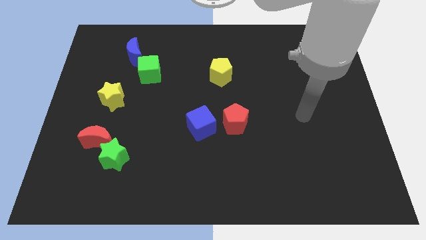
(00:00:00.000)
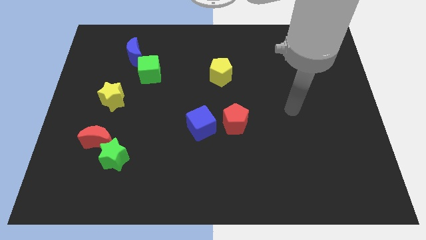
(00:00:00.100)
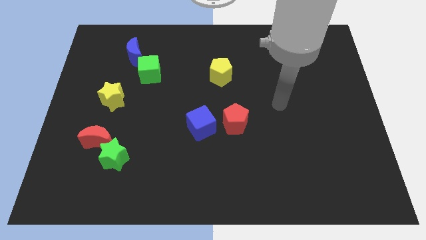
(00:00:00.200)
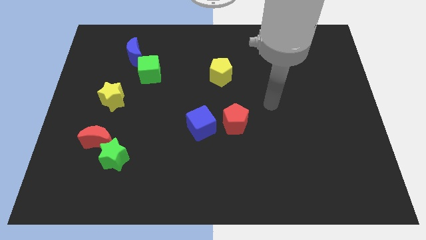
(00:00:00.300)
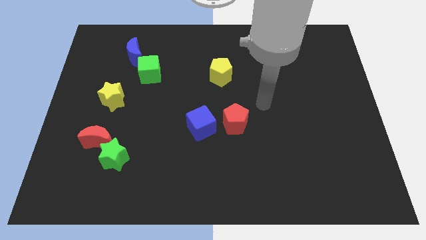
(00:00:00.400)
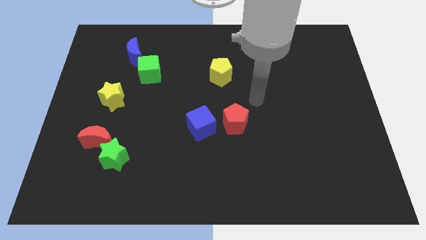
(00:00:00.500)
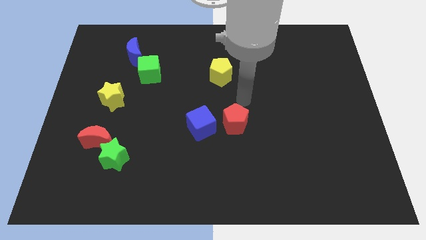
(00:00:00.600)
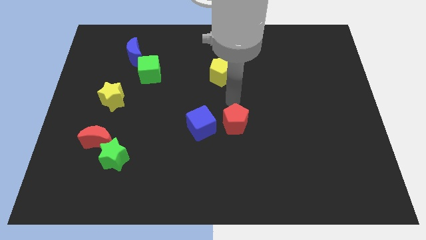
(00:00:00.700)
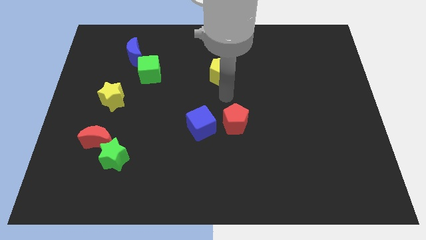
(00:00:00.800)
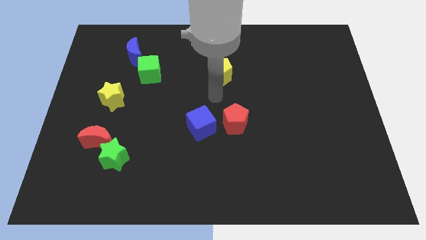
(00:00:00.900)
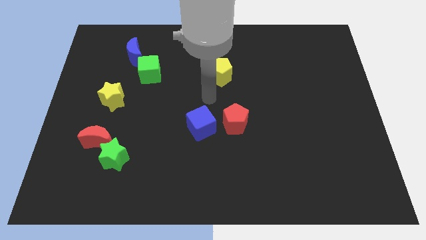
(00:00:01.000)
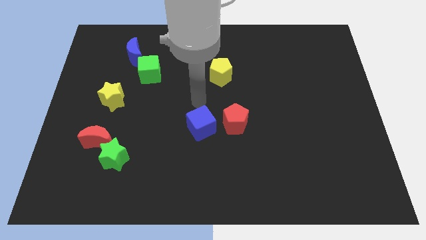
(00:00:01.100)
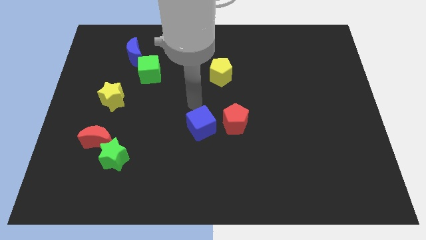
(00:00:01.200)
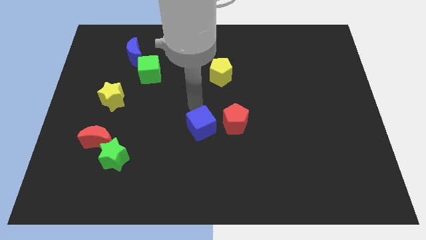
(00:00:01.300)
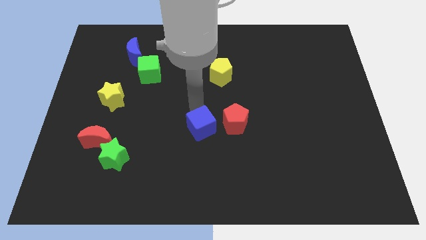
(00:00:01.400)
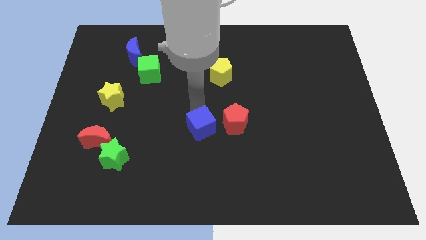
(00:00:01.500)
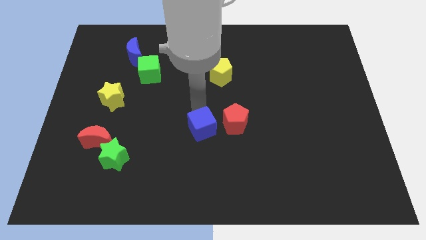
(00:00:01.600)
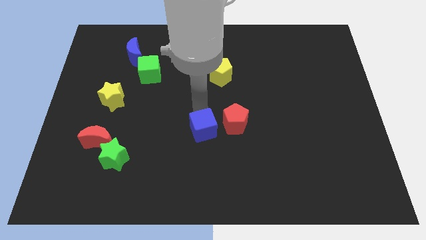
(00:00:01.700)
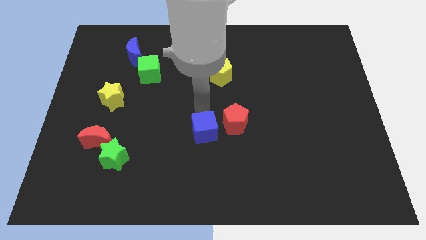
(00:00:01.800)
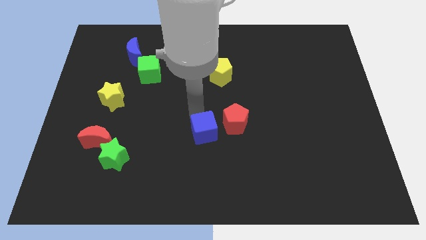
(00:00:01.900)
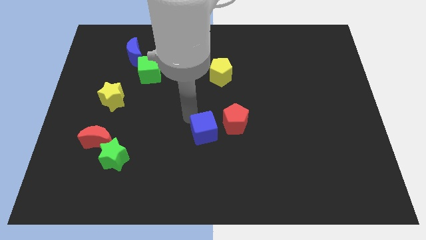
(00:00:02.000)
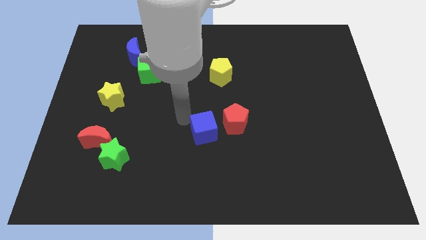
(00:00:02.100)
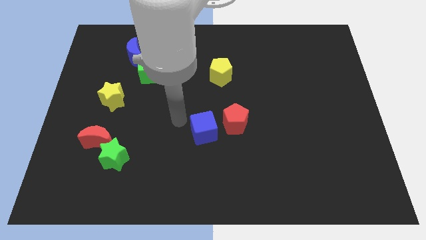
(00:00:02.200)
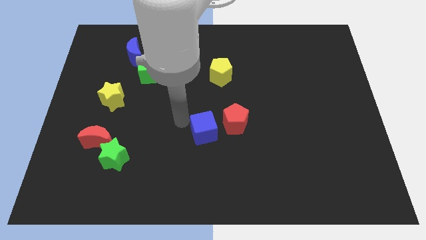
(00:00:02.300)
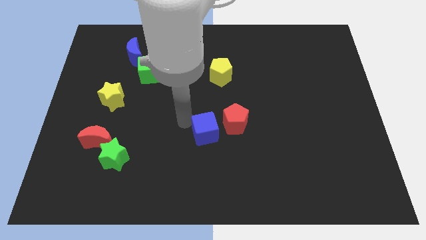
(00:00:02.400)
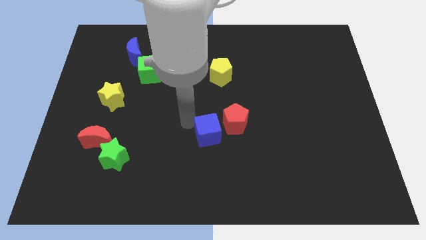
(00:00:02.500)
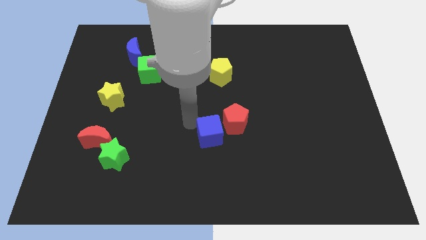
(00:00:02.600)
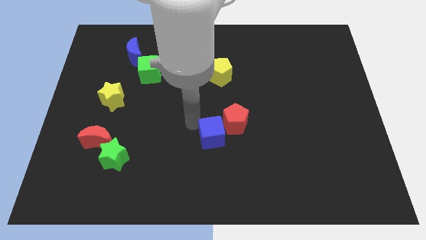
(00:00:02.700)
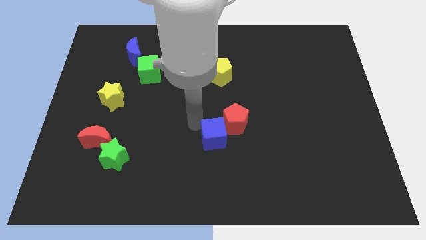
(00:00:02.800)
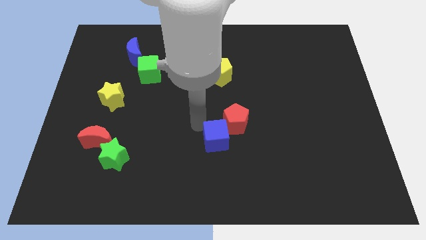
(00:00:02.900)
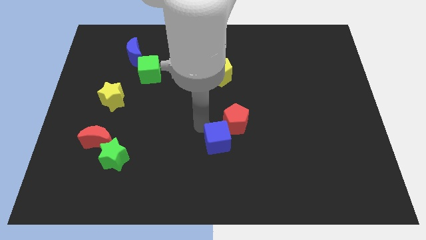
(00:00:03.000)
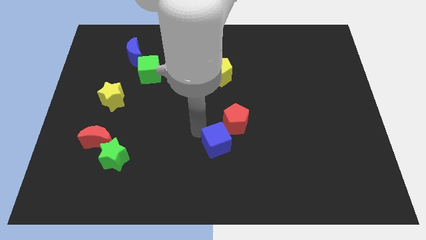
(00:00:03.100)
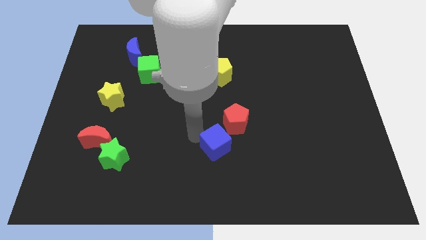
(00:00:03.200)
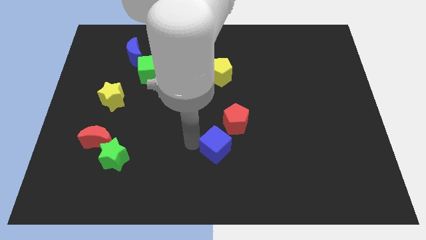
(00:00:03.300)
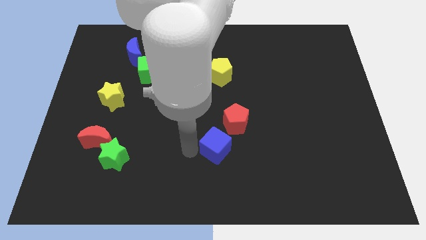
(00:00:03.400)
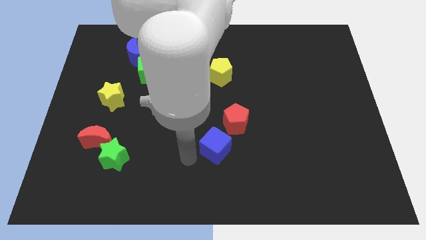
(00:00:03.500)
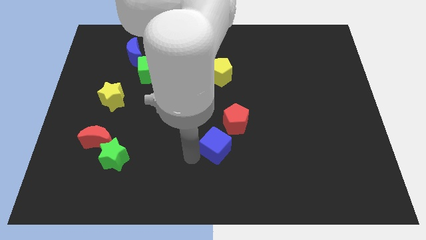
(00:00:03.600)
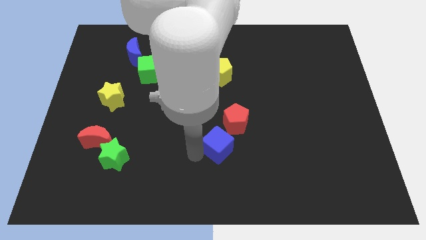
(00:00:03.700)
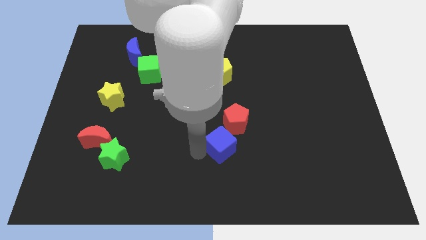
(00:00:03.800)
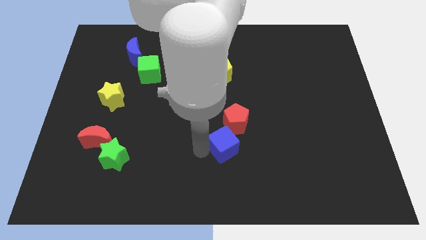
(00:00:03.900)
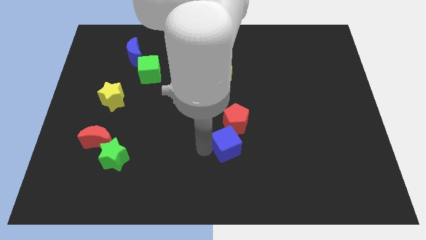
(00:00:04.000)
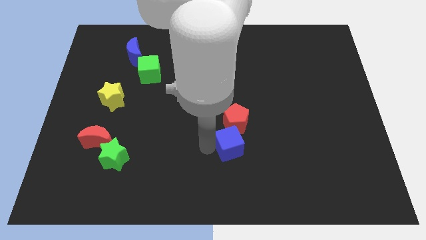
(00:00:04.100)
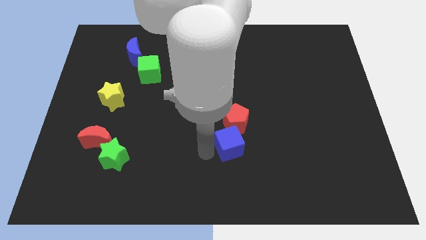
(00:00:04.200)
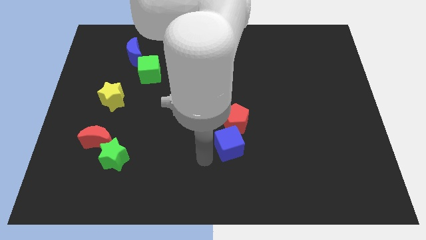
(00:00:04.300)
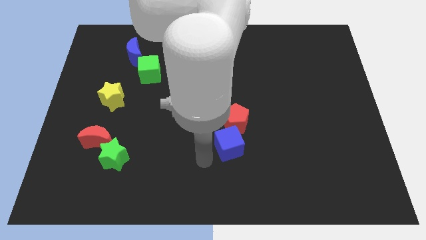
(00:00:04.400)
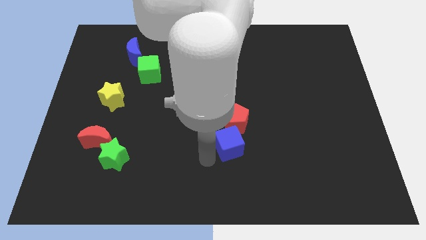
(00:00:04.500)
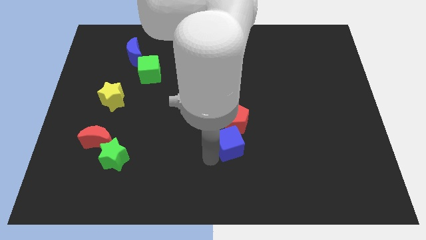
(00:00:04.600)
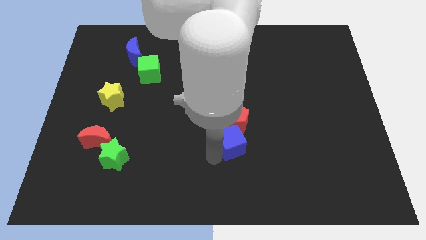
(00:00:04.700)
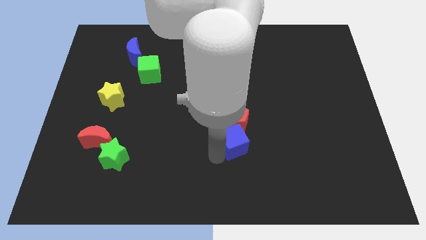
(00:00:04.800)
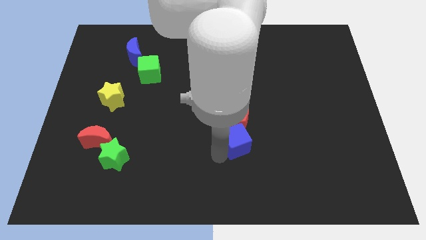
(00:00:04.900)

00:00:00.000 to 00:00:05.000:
slightly push the blue cube to the right

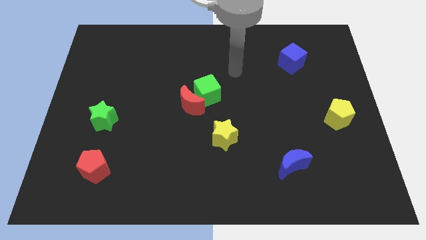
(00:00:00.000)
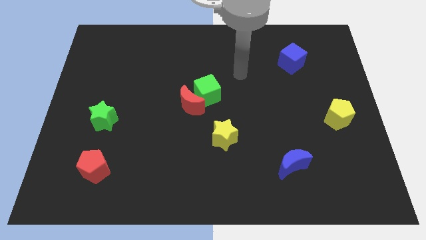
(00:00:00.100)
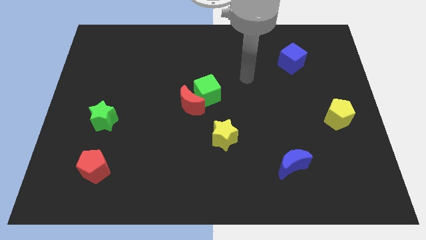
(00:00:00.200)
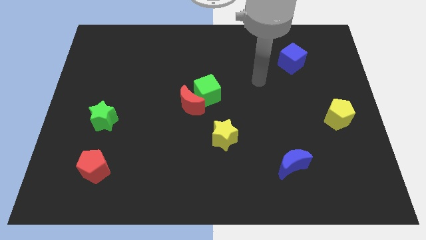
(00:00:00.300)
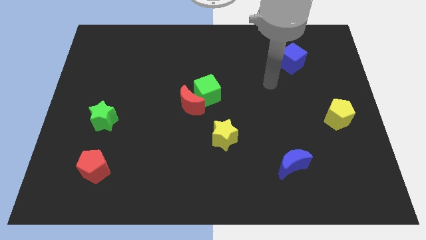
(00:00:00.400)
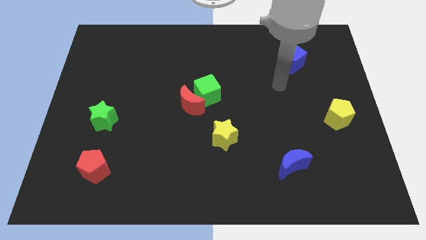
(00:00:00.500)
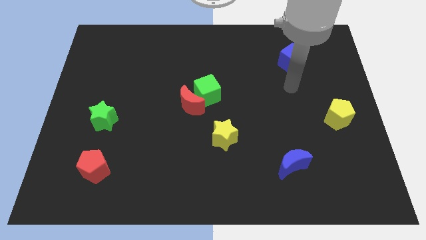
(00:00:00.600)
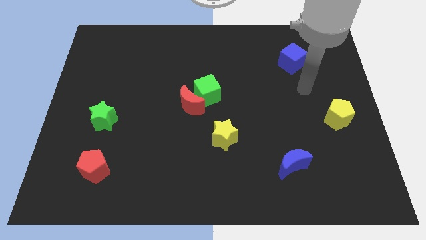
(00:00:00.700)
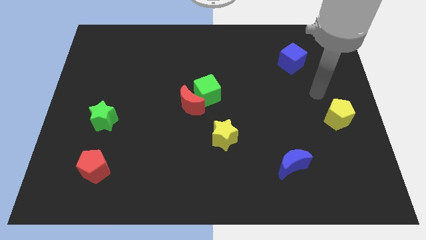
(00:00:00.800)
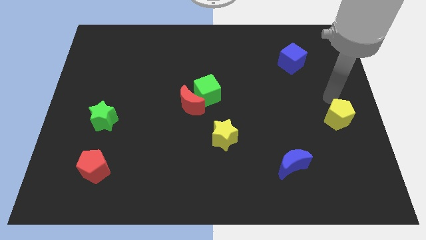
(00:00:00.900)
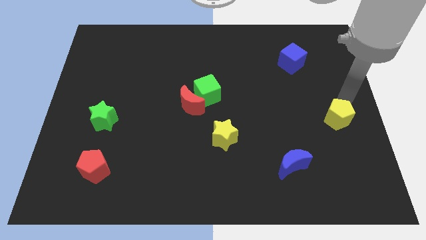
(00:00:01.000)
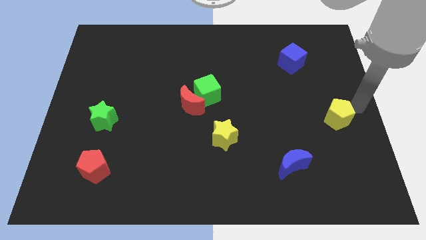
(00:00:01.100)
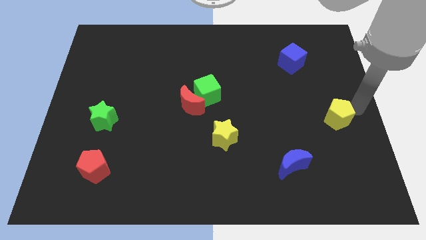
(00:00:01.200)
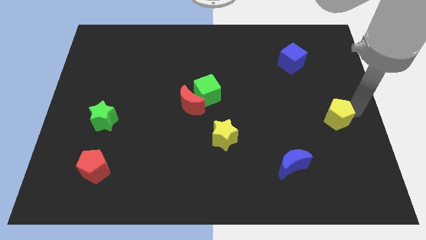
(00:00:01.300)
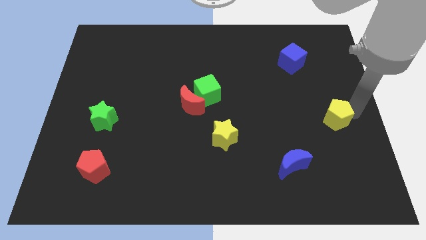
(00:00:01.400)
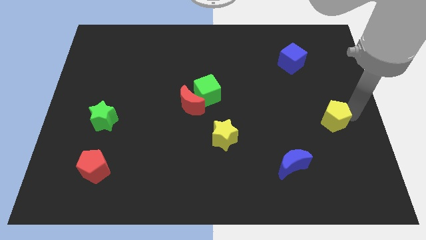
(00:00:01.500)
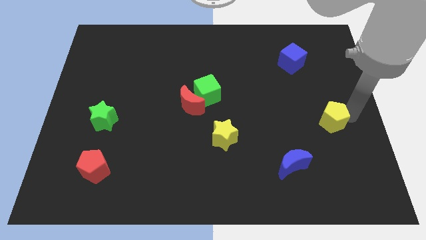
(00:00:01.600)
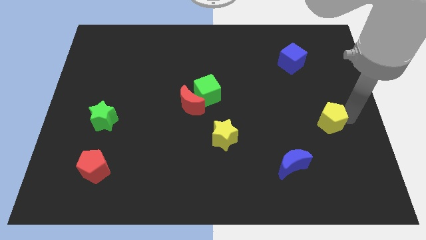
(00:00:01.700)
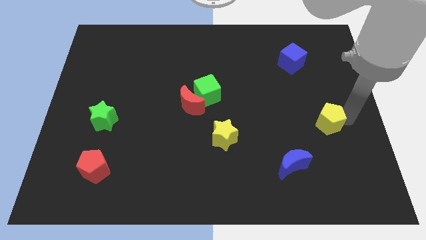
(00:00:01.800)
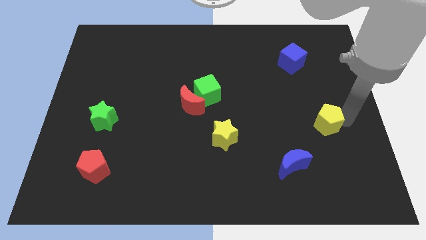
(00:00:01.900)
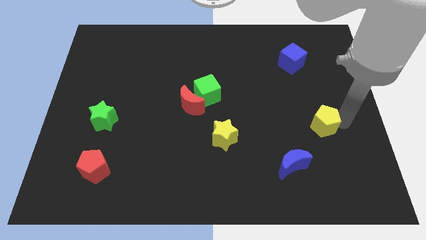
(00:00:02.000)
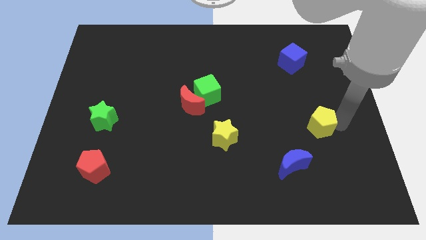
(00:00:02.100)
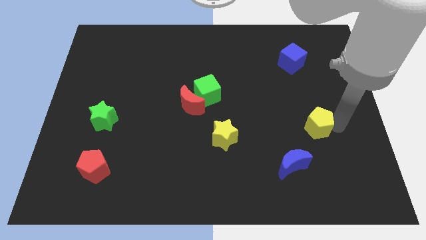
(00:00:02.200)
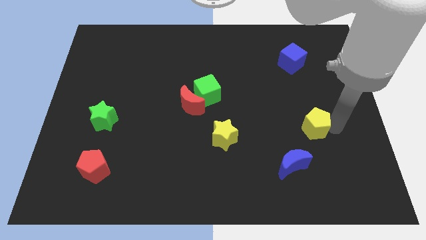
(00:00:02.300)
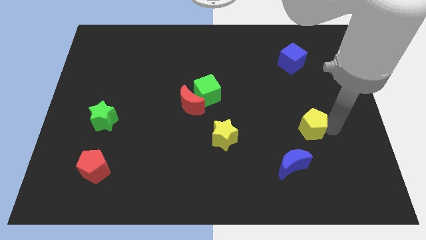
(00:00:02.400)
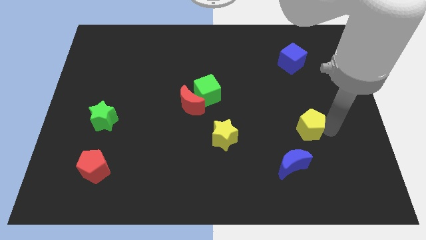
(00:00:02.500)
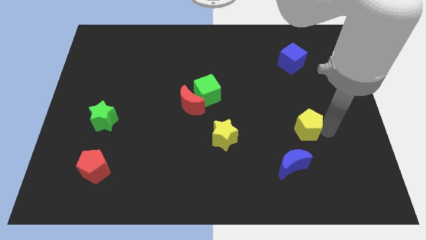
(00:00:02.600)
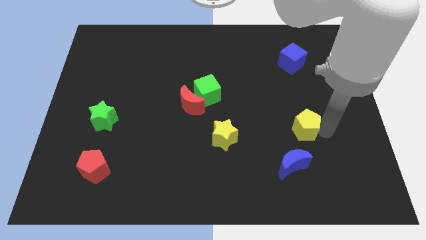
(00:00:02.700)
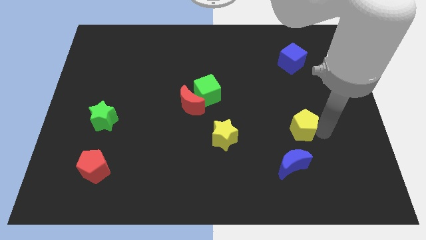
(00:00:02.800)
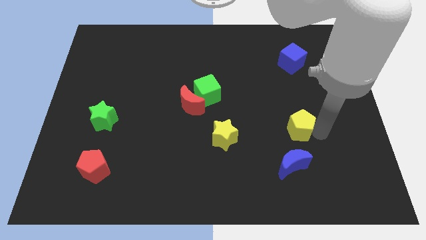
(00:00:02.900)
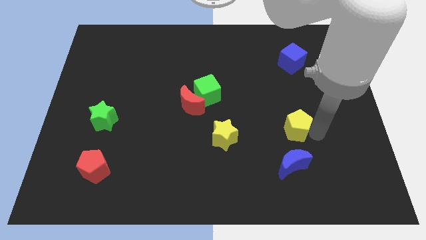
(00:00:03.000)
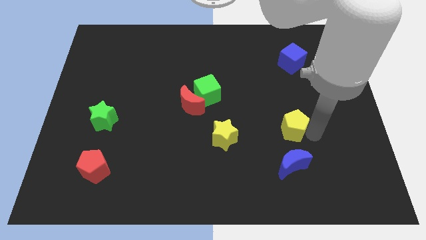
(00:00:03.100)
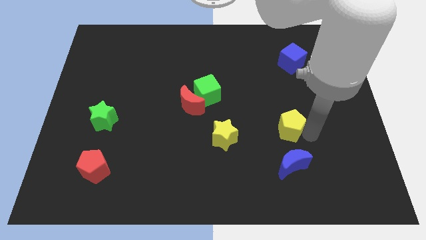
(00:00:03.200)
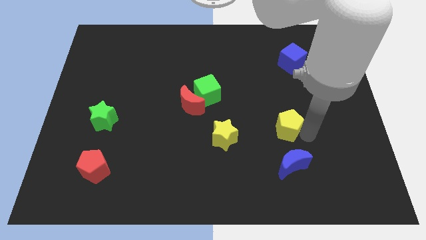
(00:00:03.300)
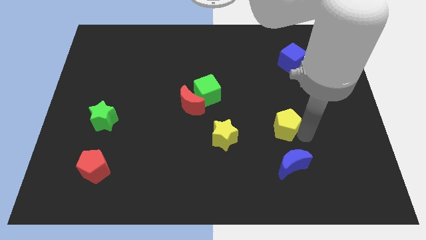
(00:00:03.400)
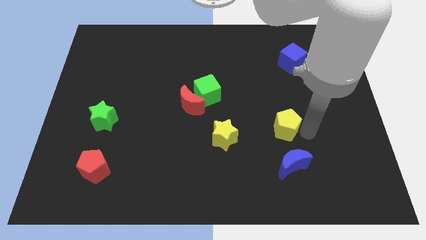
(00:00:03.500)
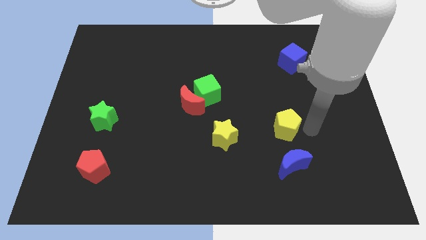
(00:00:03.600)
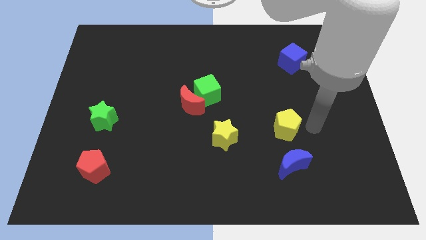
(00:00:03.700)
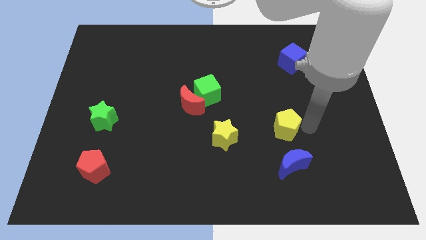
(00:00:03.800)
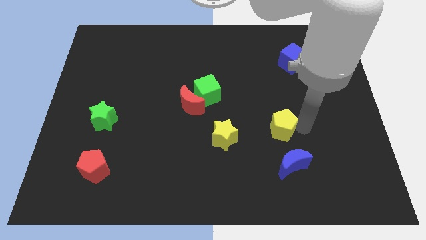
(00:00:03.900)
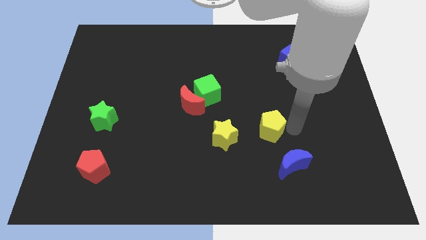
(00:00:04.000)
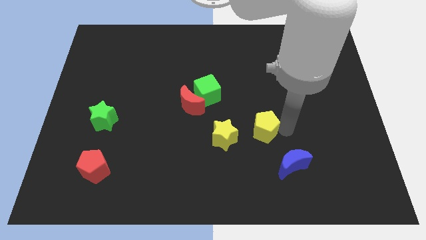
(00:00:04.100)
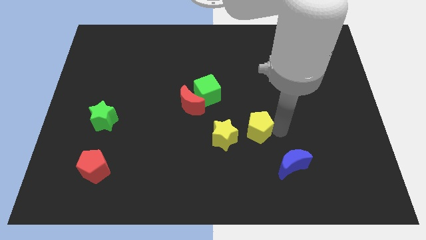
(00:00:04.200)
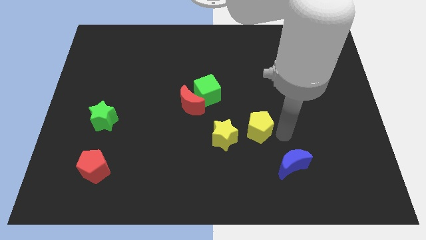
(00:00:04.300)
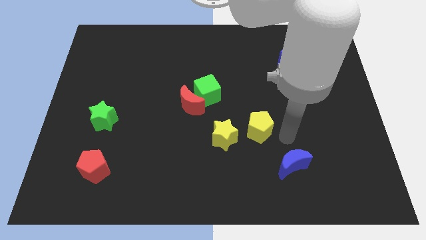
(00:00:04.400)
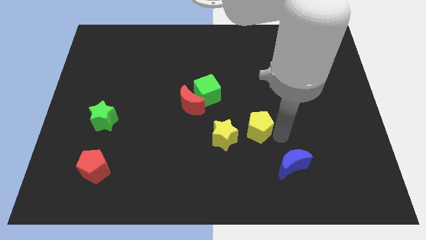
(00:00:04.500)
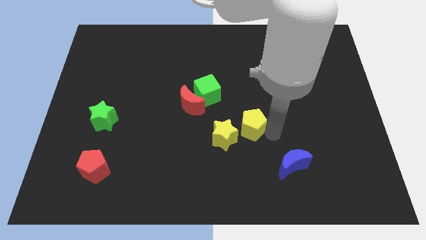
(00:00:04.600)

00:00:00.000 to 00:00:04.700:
slide the yellow pentagon left
